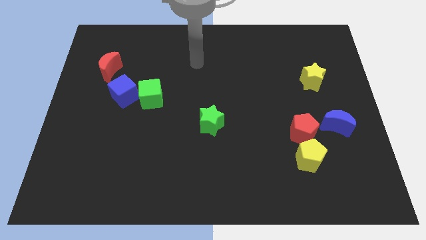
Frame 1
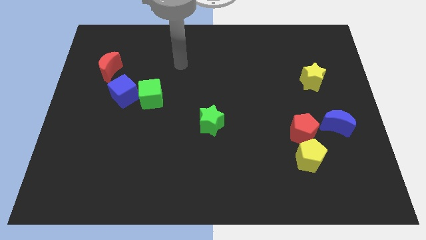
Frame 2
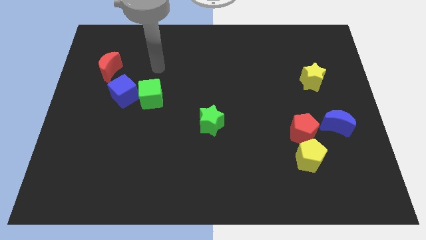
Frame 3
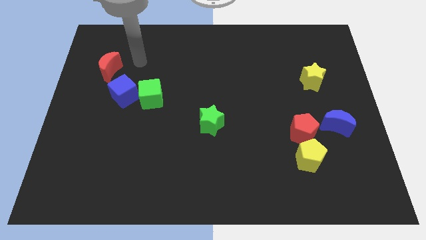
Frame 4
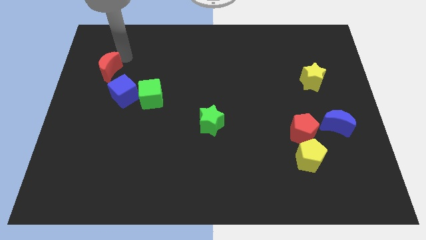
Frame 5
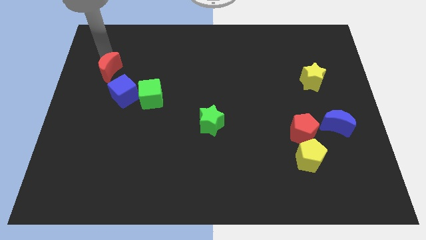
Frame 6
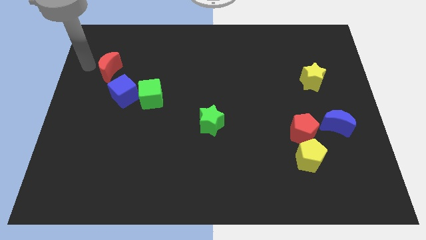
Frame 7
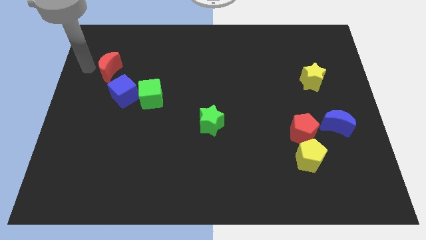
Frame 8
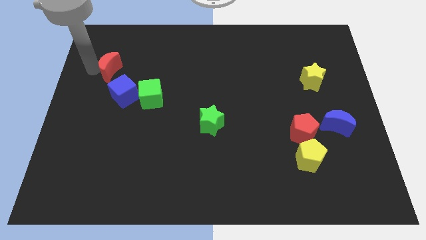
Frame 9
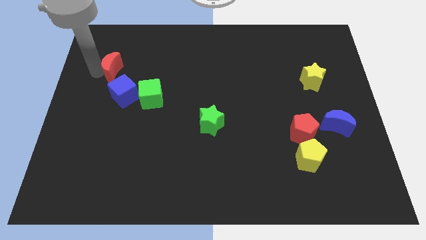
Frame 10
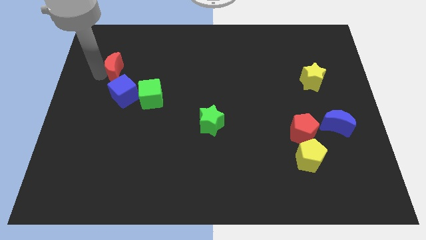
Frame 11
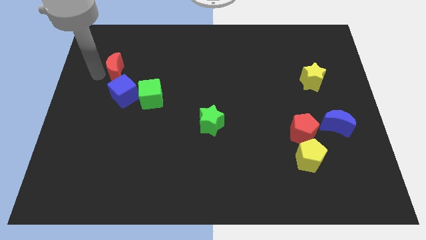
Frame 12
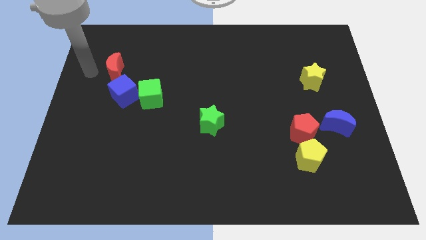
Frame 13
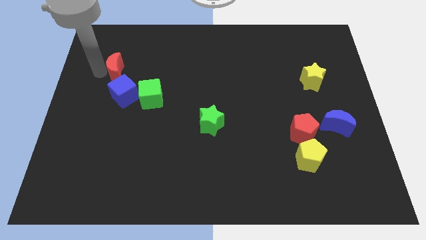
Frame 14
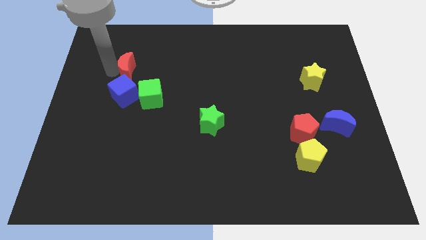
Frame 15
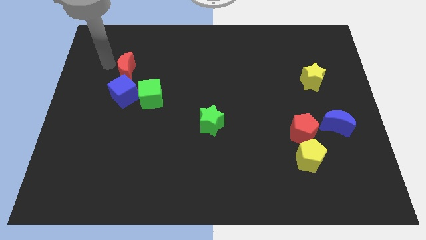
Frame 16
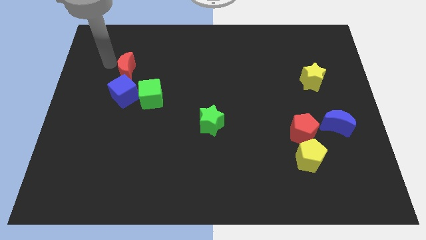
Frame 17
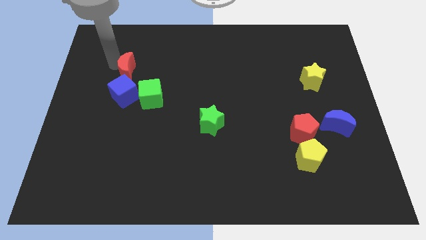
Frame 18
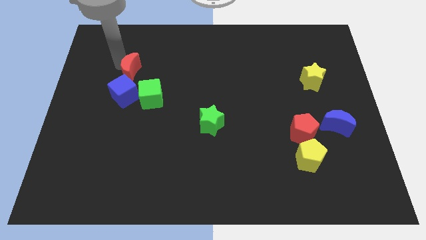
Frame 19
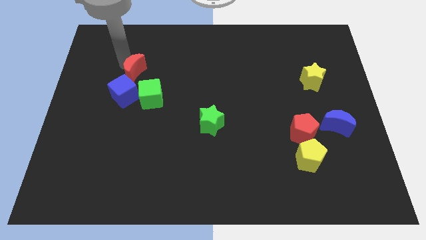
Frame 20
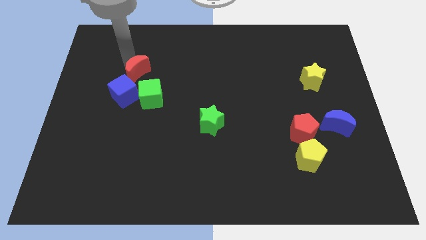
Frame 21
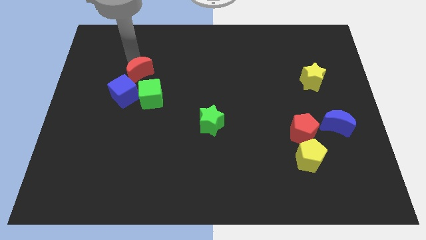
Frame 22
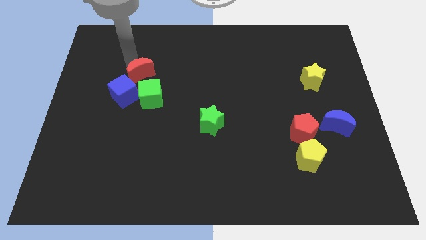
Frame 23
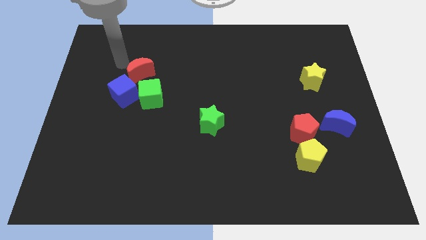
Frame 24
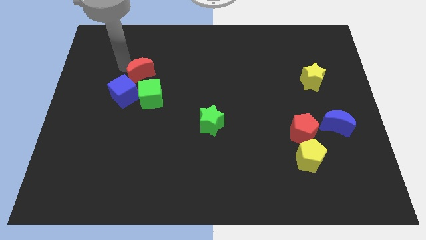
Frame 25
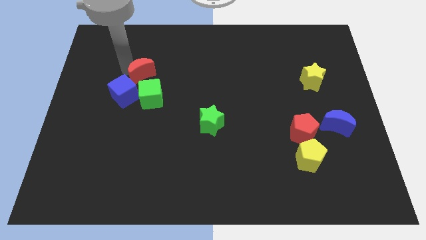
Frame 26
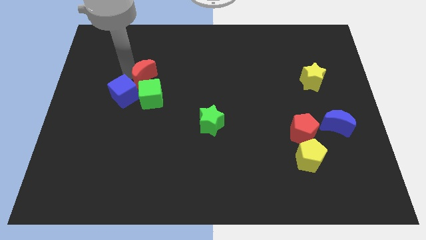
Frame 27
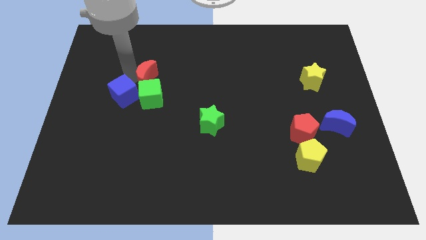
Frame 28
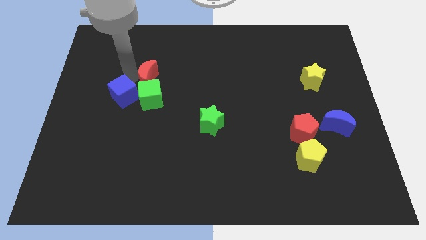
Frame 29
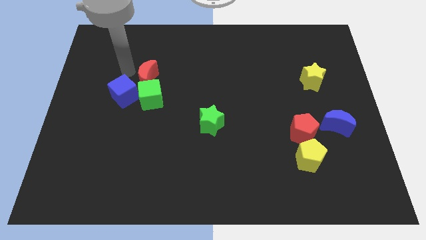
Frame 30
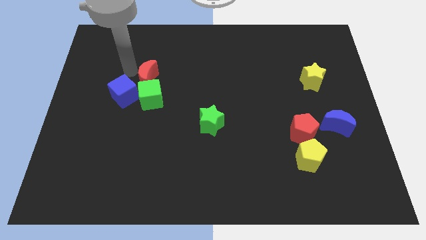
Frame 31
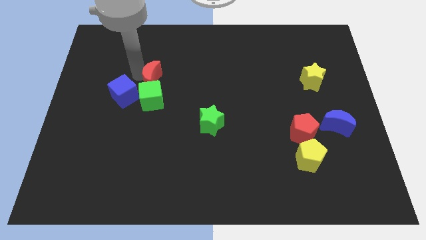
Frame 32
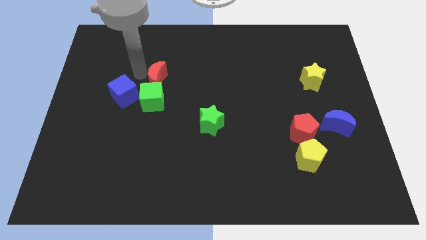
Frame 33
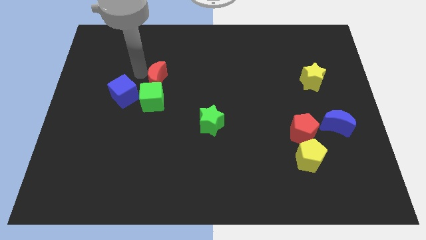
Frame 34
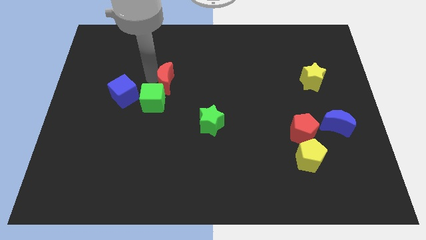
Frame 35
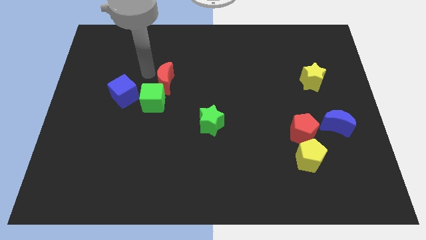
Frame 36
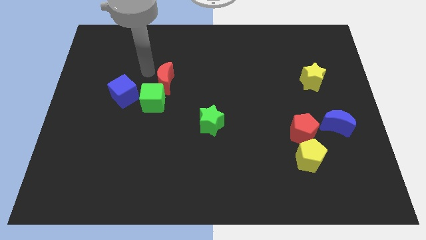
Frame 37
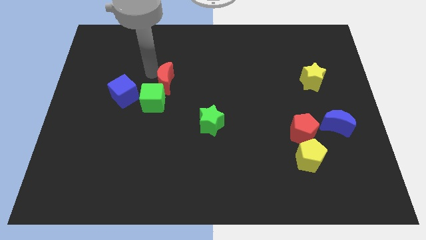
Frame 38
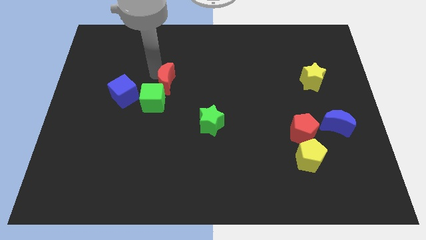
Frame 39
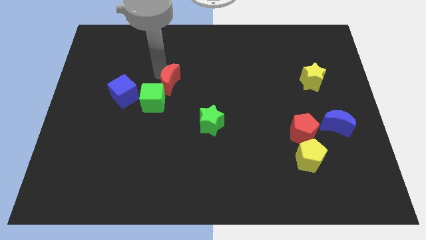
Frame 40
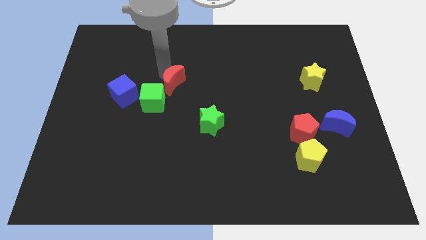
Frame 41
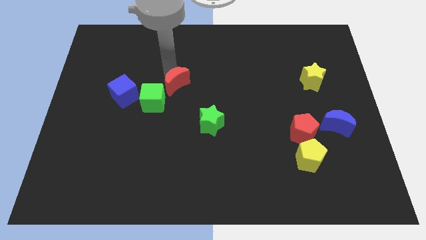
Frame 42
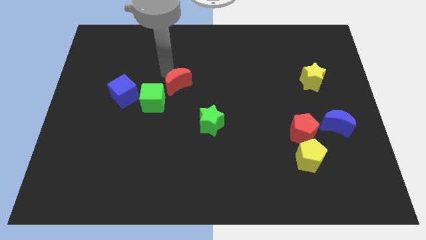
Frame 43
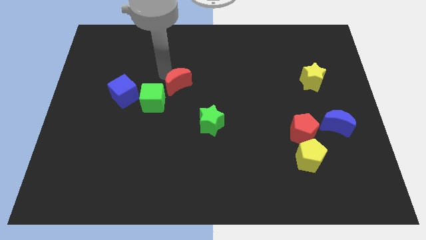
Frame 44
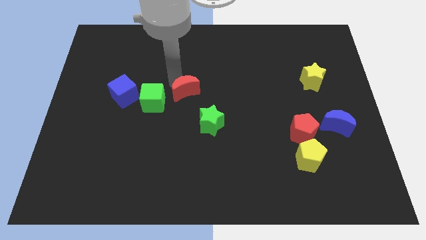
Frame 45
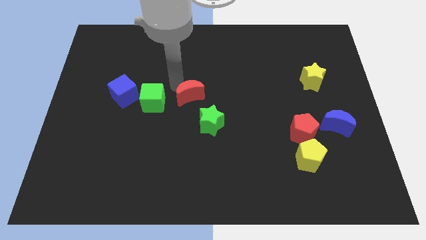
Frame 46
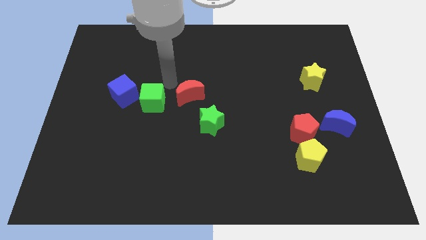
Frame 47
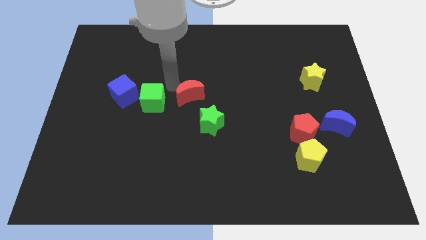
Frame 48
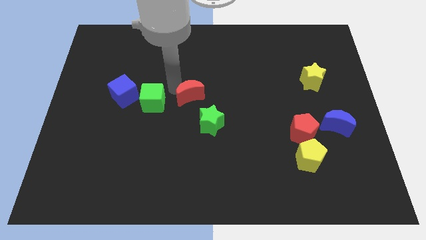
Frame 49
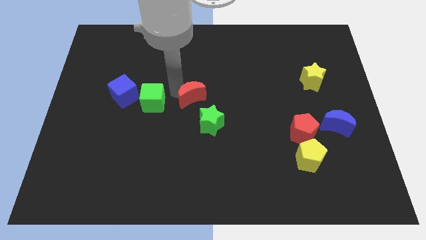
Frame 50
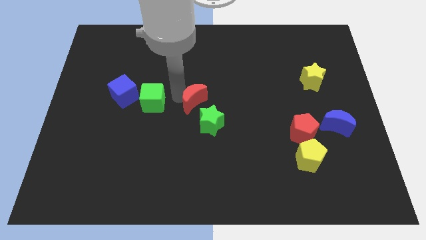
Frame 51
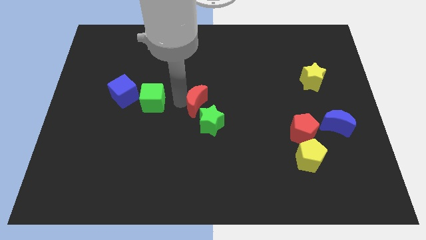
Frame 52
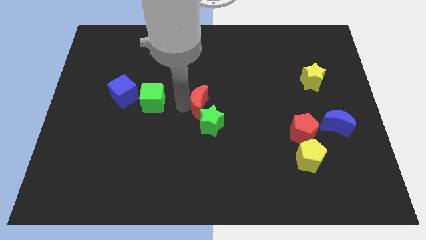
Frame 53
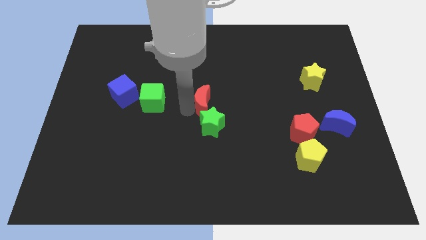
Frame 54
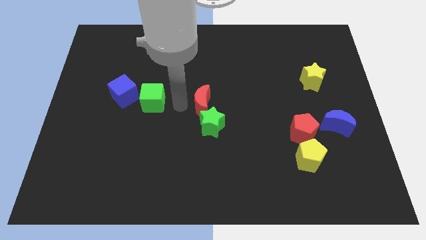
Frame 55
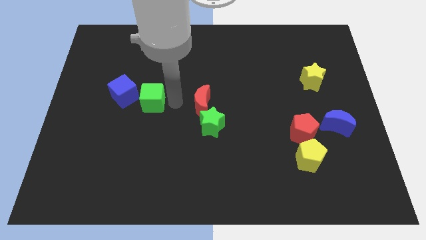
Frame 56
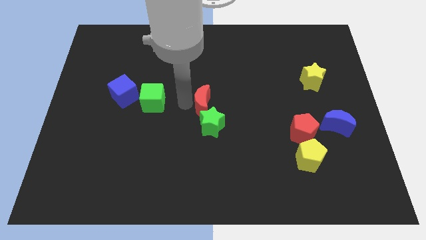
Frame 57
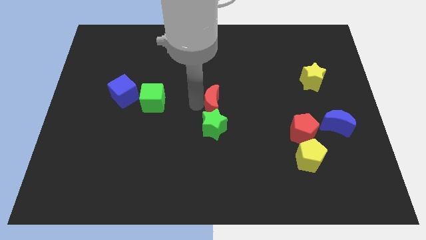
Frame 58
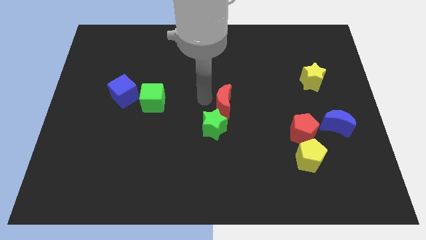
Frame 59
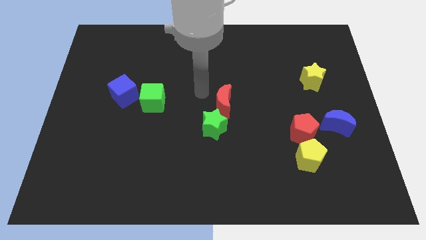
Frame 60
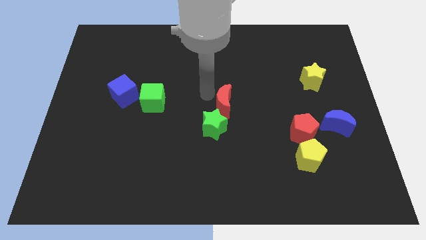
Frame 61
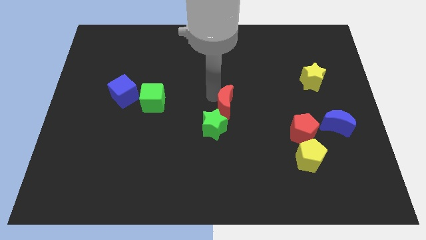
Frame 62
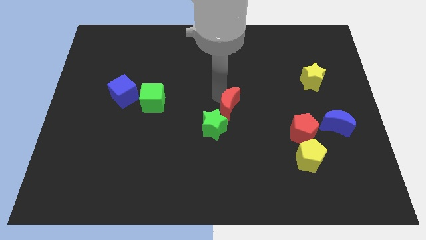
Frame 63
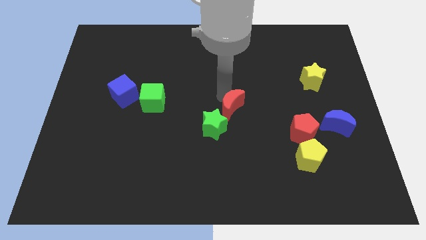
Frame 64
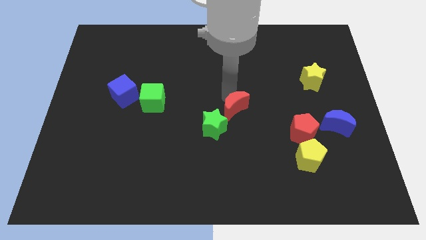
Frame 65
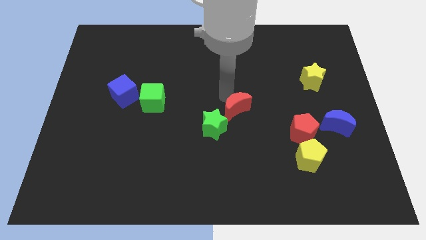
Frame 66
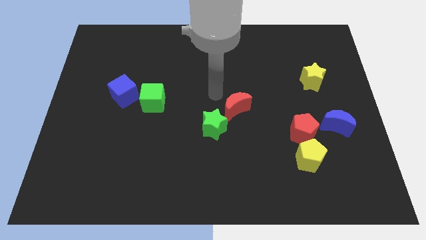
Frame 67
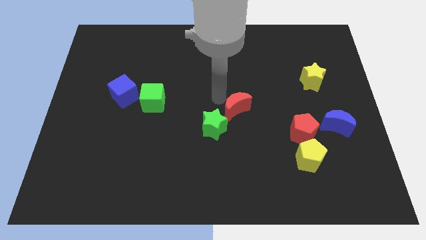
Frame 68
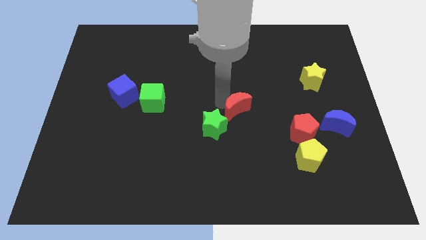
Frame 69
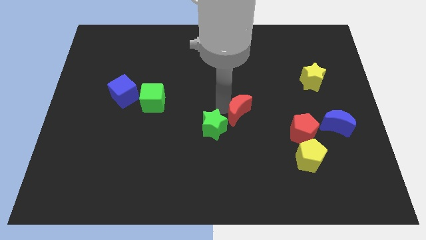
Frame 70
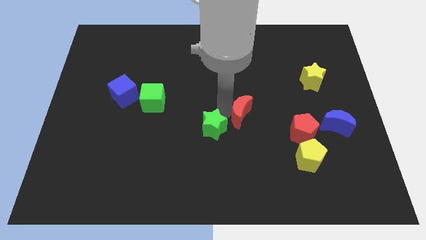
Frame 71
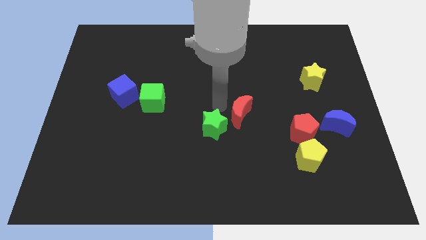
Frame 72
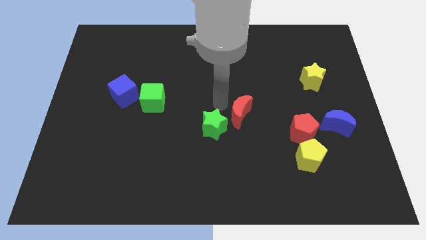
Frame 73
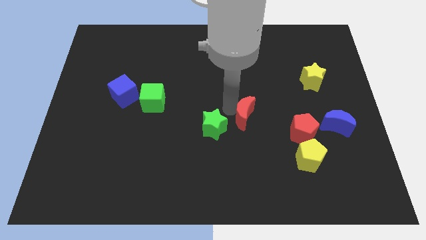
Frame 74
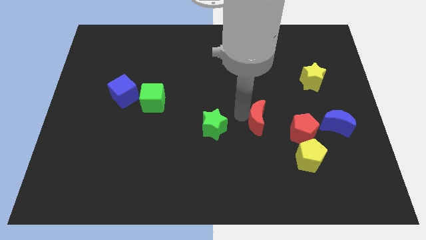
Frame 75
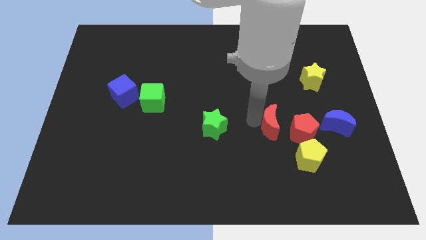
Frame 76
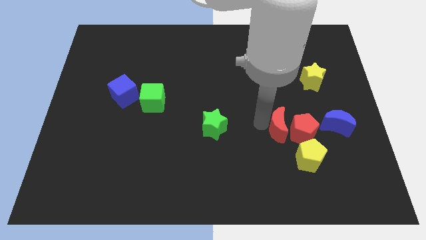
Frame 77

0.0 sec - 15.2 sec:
push the red moon towards the red pentagon
